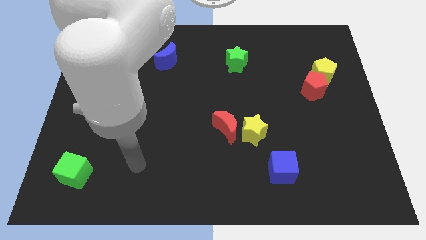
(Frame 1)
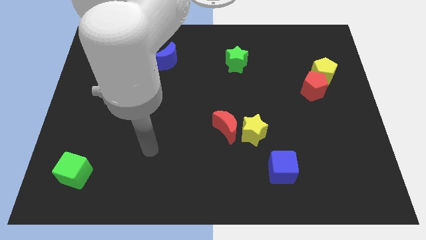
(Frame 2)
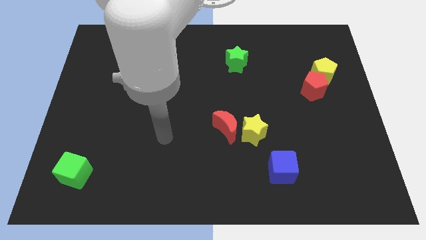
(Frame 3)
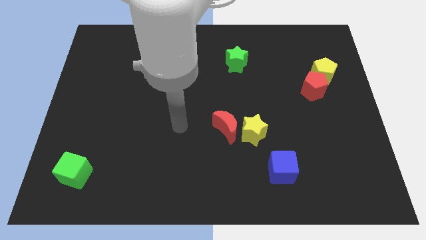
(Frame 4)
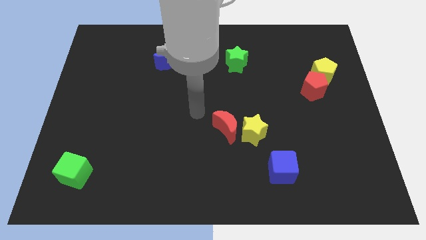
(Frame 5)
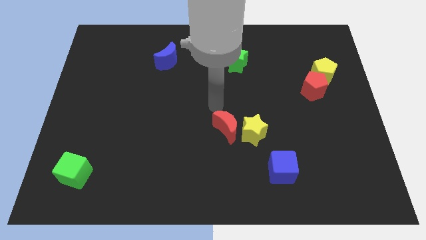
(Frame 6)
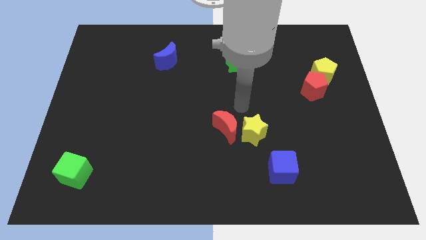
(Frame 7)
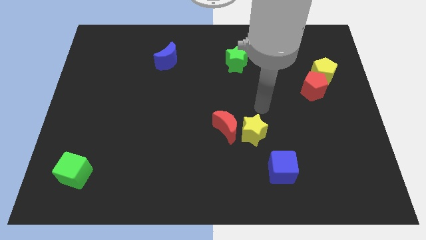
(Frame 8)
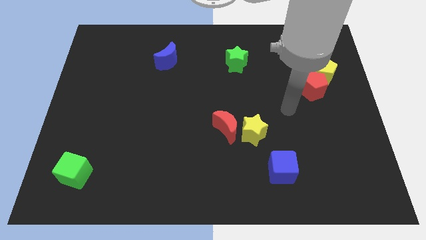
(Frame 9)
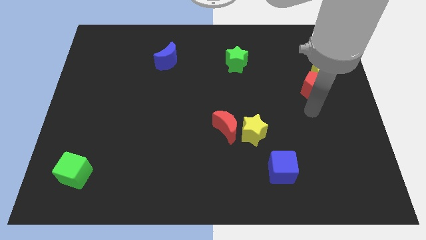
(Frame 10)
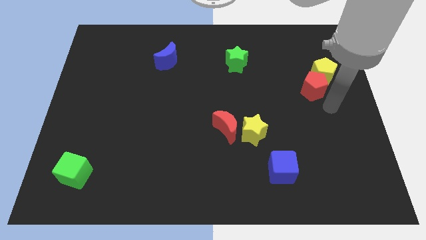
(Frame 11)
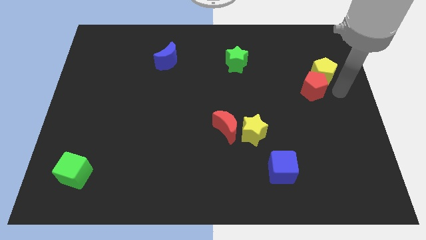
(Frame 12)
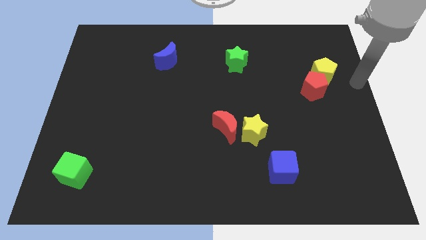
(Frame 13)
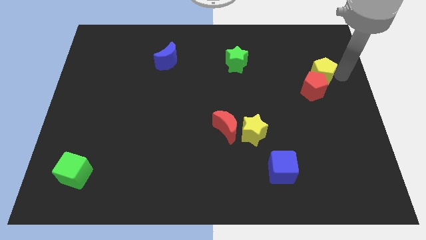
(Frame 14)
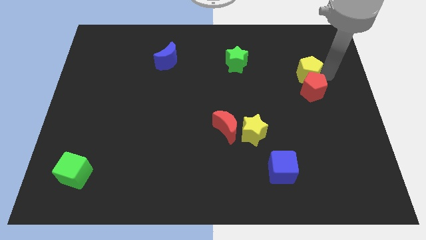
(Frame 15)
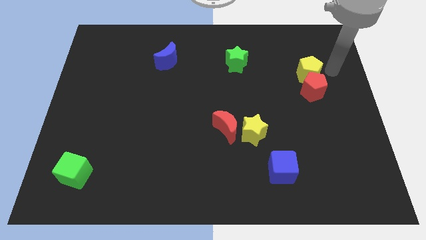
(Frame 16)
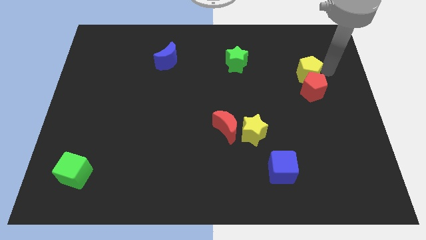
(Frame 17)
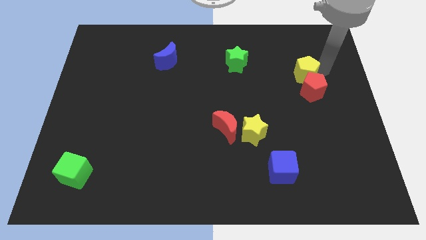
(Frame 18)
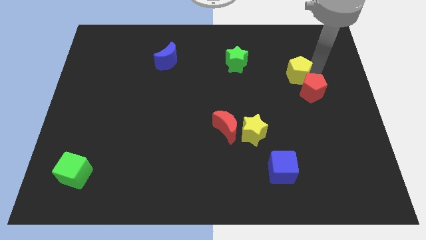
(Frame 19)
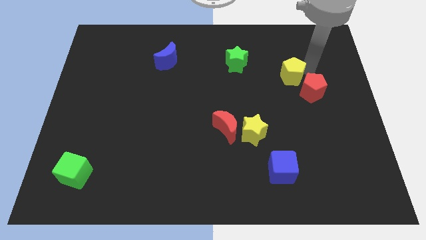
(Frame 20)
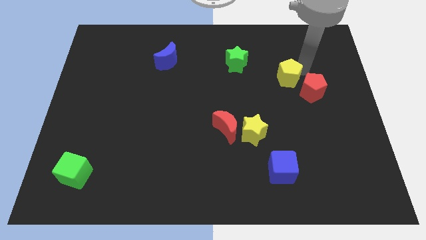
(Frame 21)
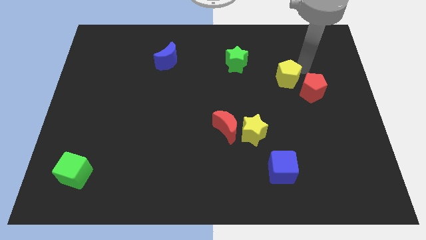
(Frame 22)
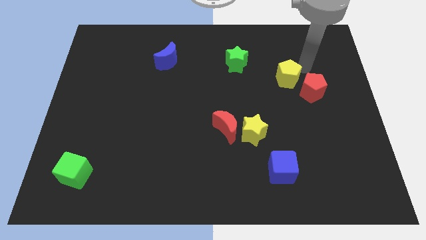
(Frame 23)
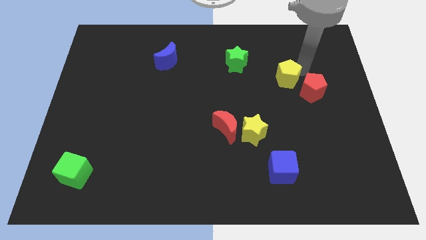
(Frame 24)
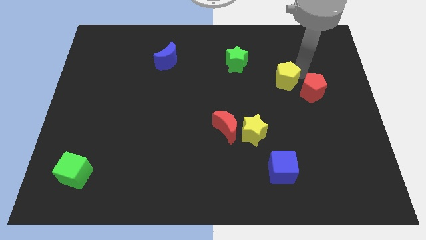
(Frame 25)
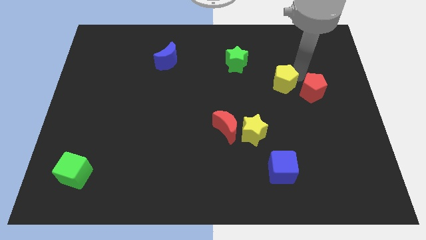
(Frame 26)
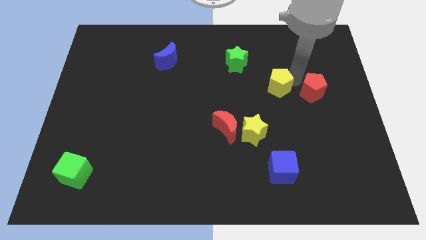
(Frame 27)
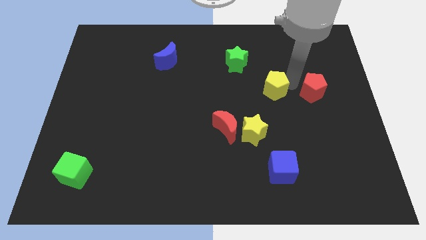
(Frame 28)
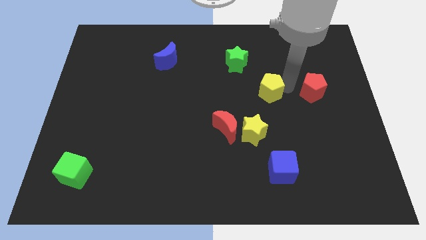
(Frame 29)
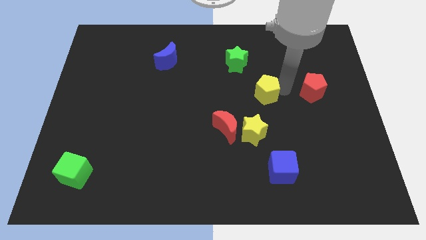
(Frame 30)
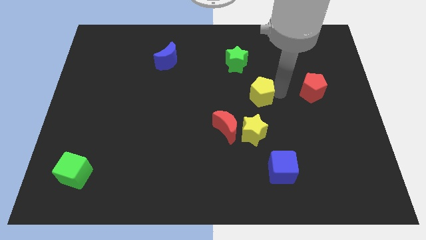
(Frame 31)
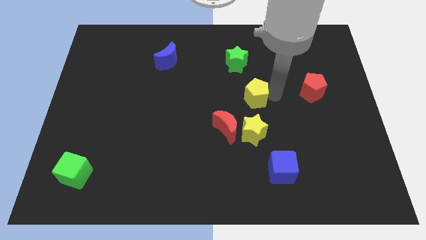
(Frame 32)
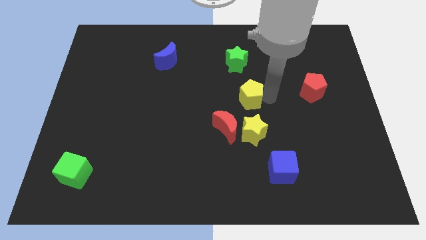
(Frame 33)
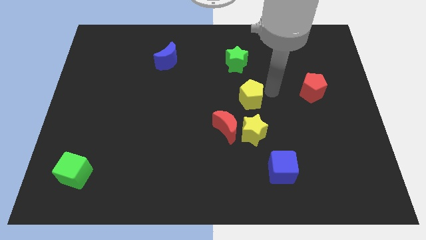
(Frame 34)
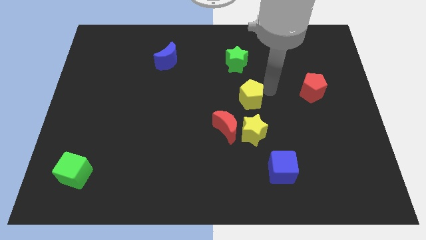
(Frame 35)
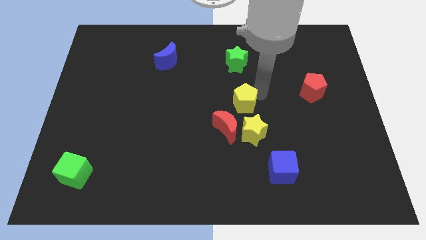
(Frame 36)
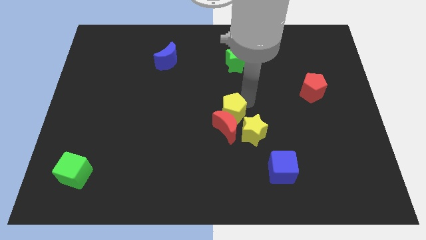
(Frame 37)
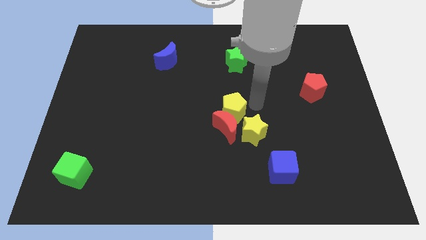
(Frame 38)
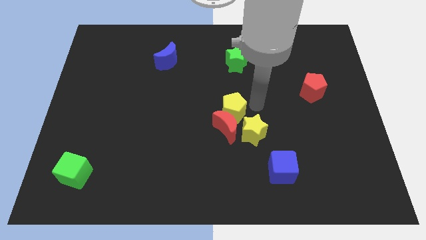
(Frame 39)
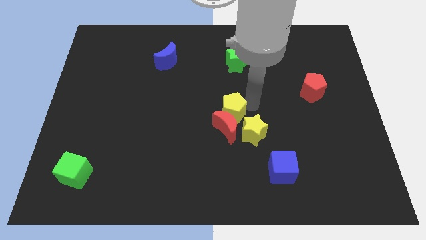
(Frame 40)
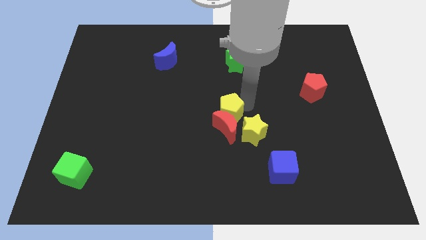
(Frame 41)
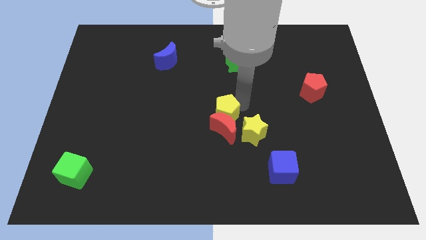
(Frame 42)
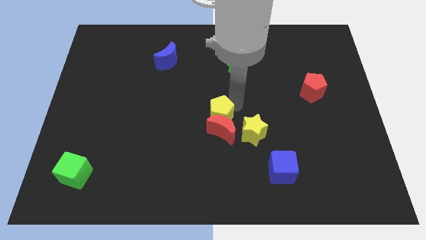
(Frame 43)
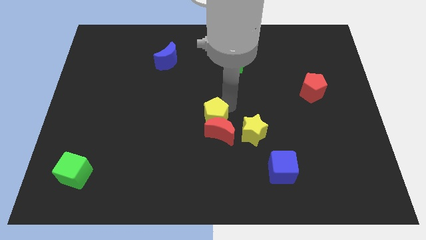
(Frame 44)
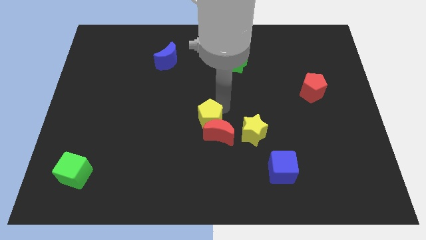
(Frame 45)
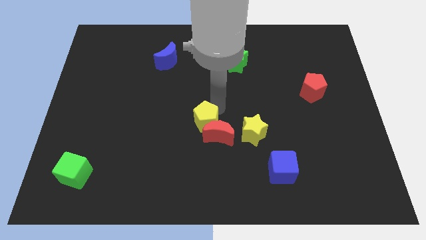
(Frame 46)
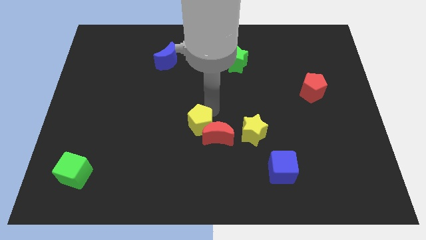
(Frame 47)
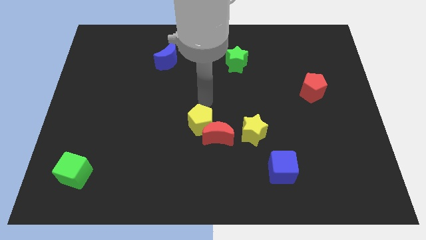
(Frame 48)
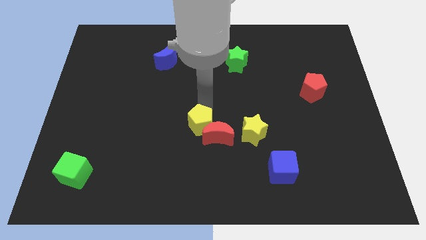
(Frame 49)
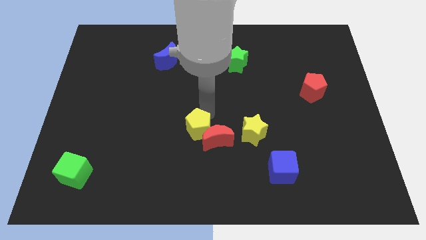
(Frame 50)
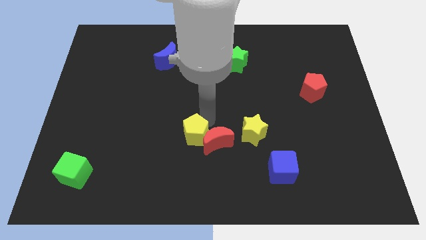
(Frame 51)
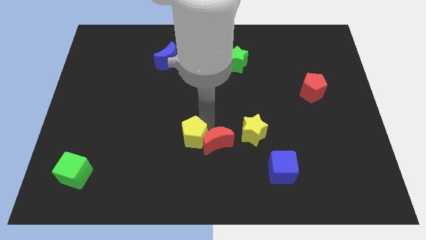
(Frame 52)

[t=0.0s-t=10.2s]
push the yellow pentagon to the bottom left side of the red moon

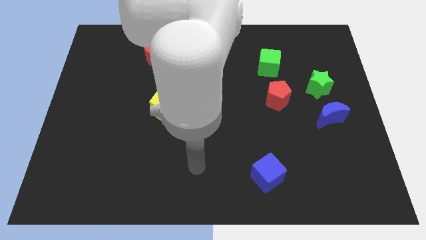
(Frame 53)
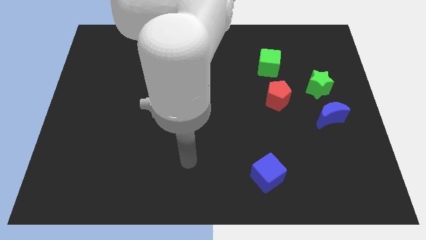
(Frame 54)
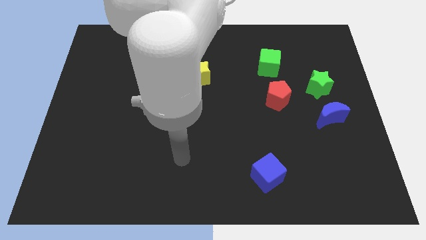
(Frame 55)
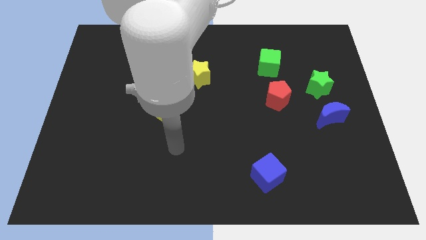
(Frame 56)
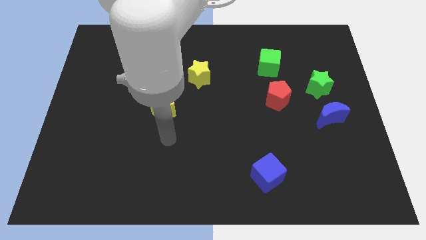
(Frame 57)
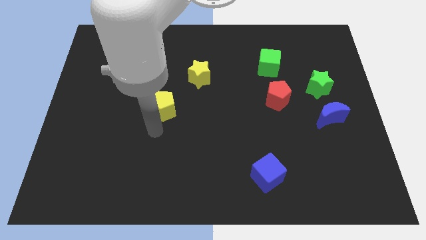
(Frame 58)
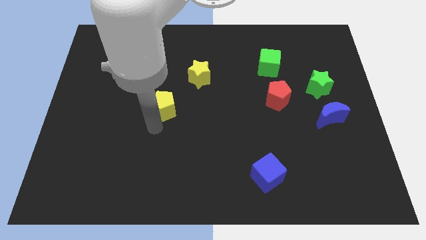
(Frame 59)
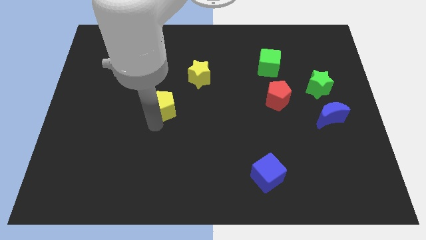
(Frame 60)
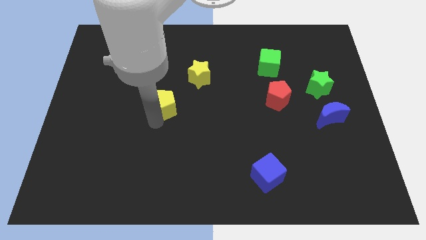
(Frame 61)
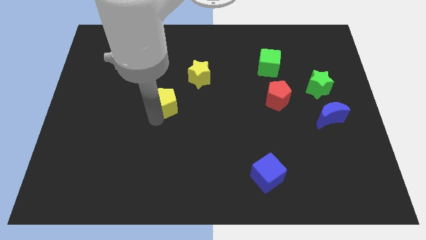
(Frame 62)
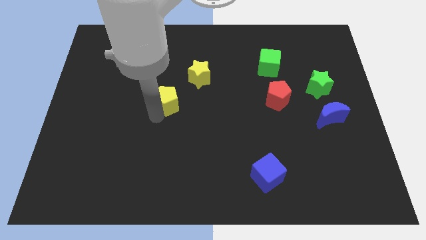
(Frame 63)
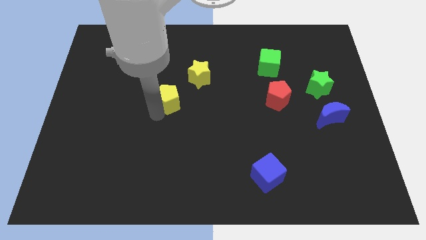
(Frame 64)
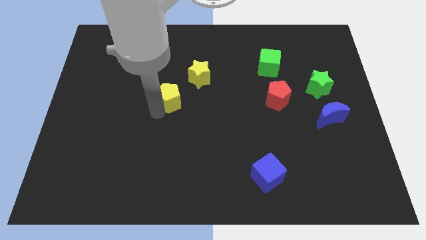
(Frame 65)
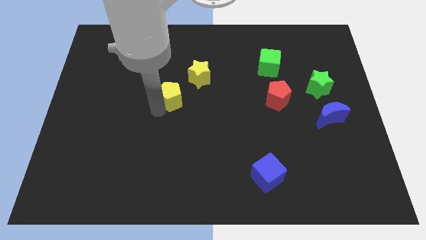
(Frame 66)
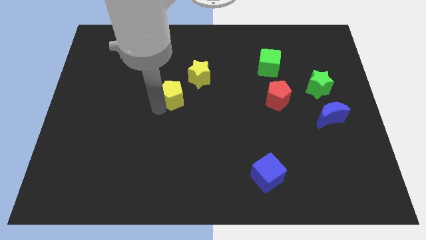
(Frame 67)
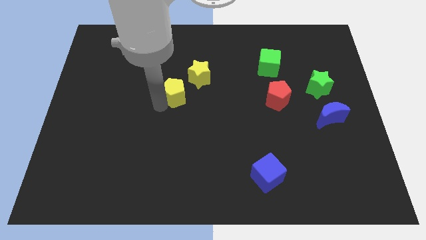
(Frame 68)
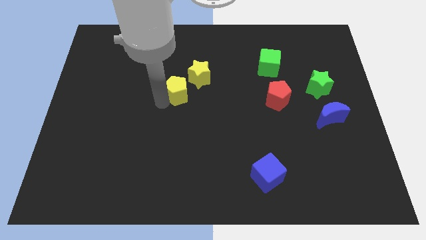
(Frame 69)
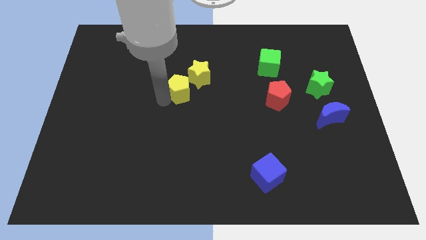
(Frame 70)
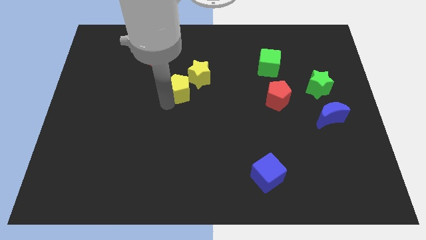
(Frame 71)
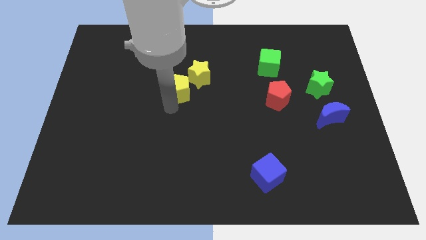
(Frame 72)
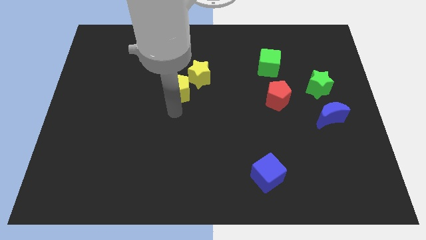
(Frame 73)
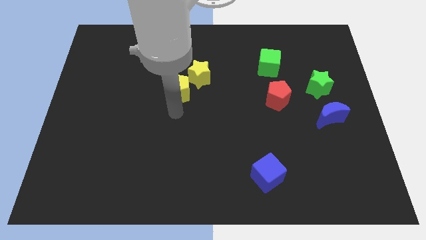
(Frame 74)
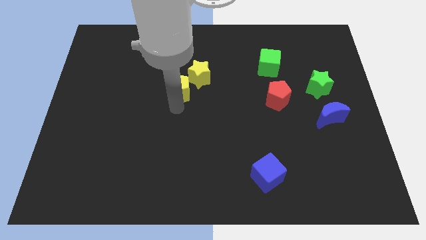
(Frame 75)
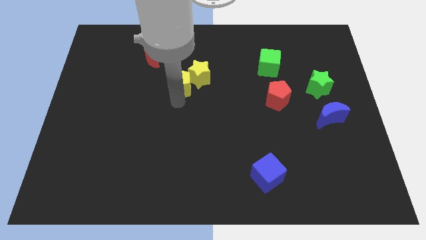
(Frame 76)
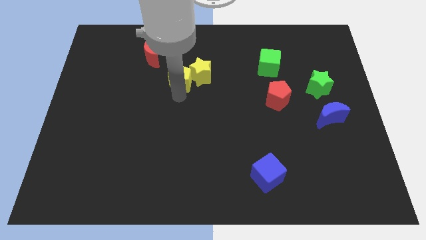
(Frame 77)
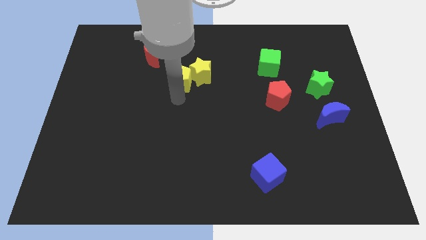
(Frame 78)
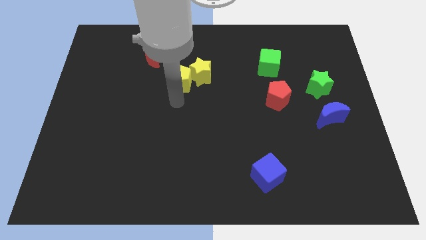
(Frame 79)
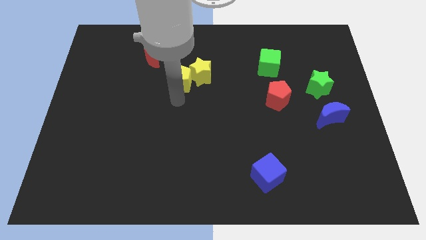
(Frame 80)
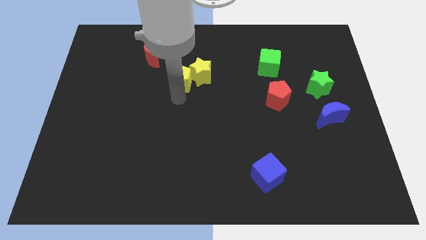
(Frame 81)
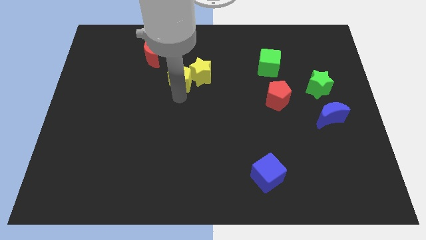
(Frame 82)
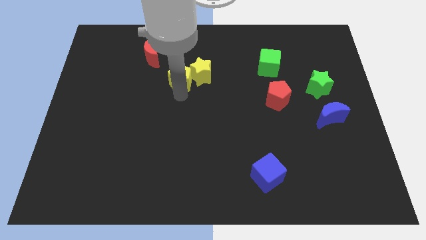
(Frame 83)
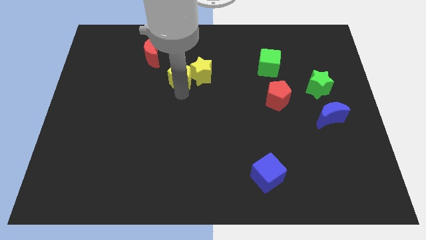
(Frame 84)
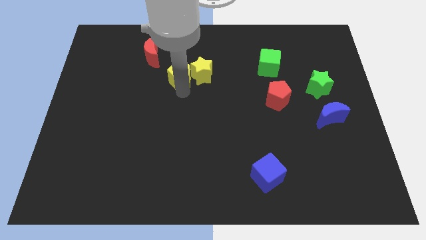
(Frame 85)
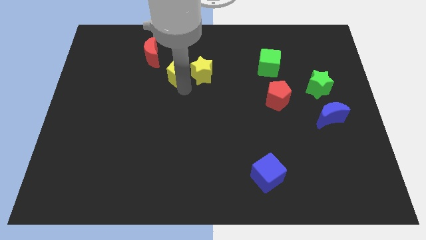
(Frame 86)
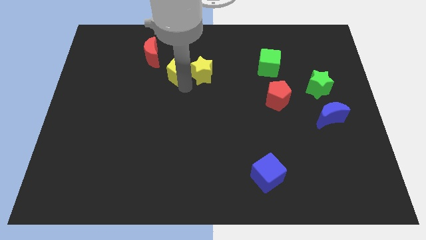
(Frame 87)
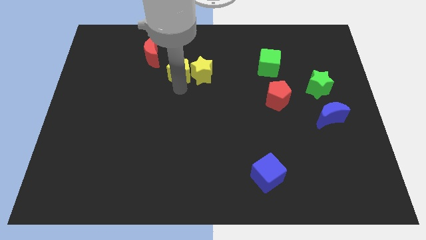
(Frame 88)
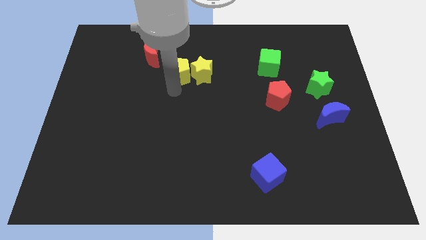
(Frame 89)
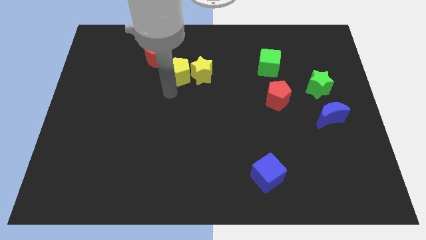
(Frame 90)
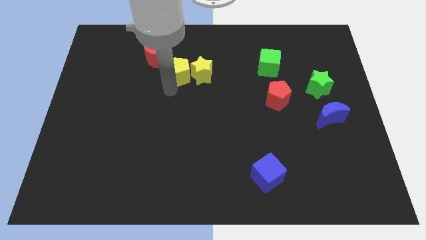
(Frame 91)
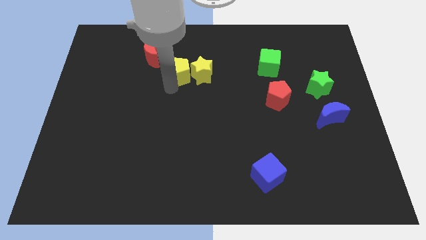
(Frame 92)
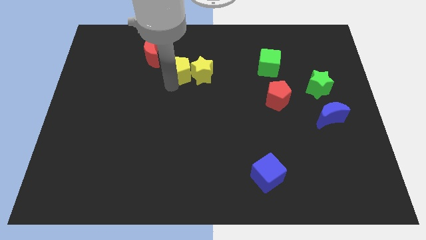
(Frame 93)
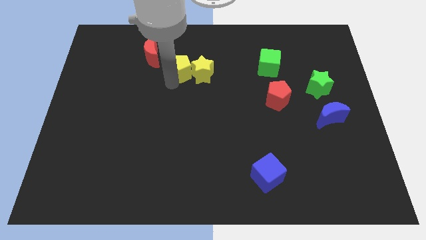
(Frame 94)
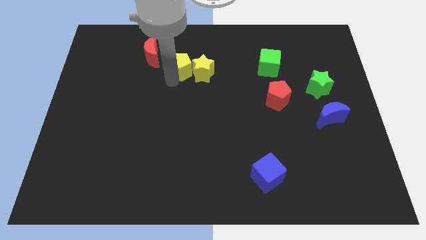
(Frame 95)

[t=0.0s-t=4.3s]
slide the yellow pentagon just right of the red moon
